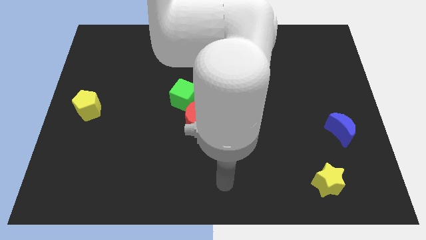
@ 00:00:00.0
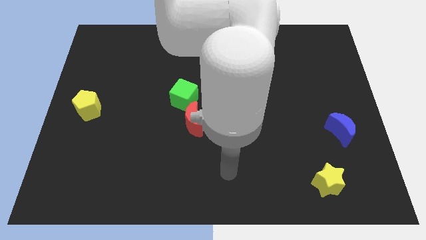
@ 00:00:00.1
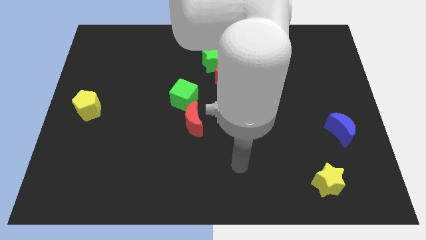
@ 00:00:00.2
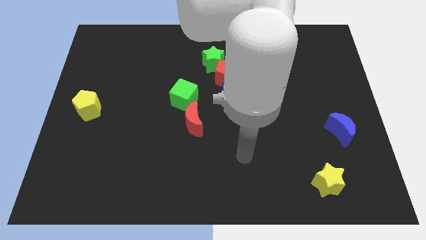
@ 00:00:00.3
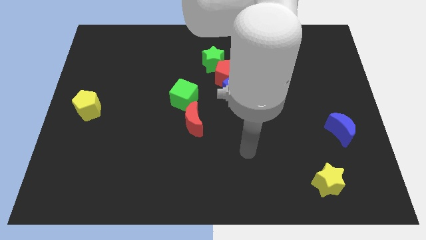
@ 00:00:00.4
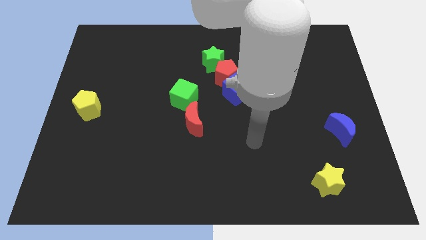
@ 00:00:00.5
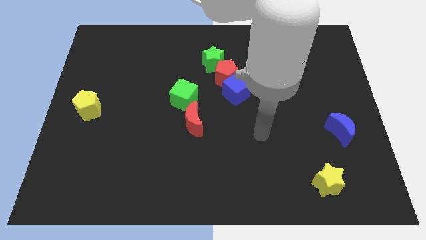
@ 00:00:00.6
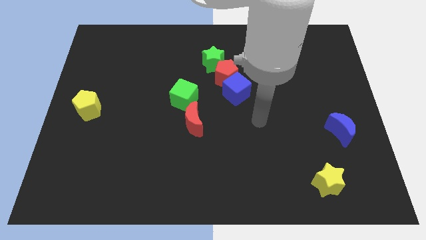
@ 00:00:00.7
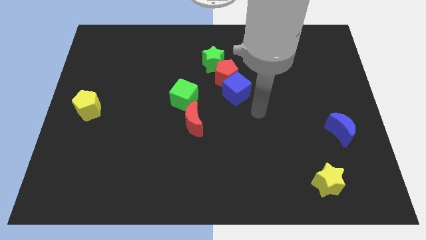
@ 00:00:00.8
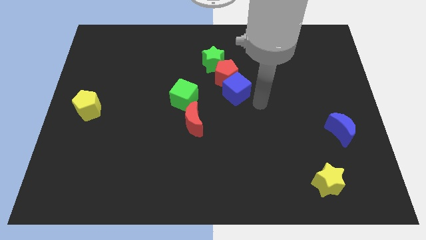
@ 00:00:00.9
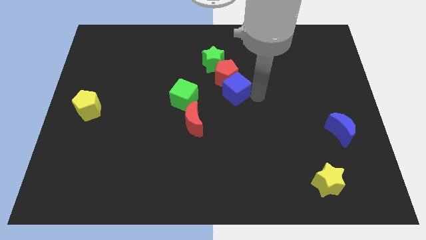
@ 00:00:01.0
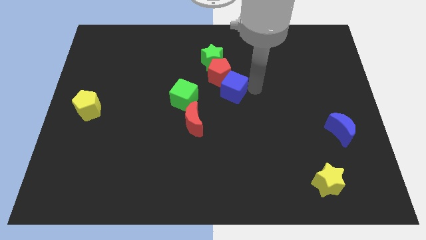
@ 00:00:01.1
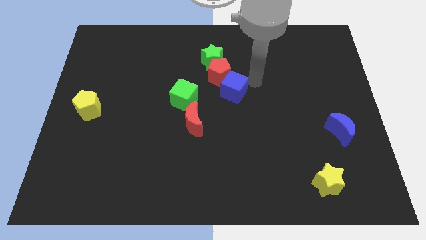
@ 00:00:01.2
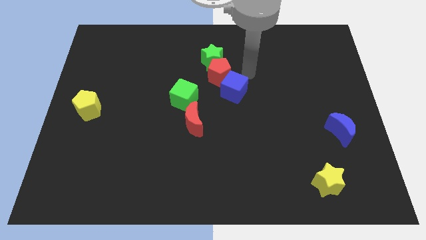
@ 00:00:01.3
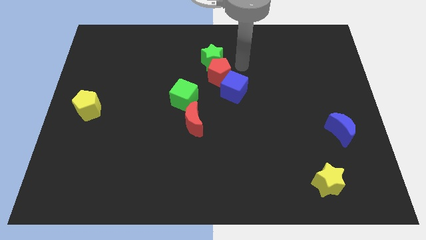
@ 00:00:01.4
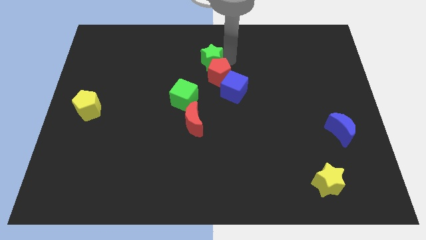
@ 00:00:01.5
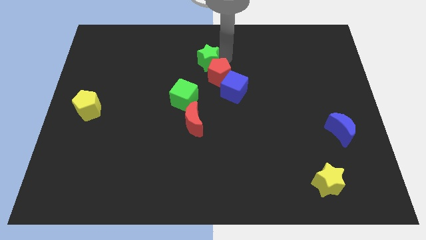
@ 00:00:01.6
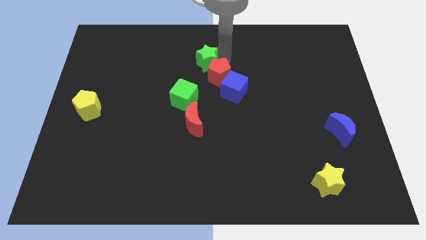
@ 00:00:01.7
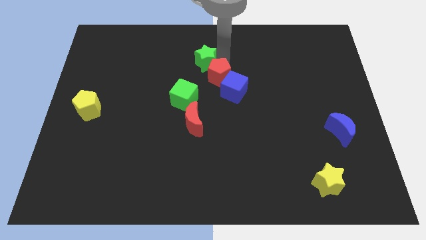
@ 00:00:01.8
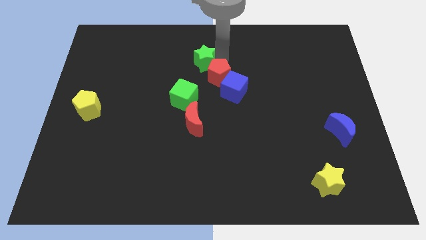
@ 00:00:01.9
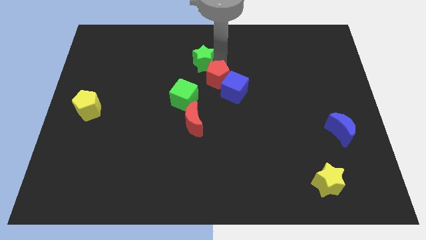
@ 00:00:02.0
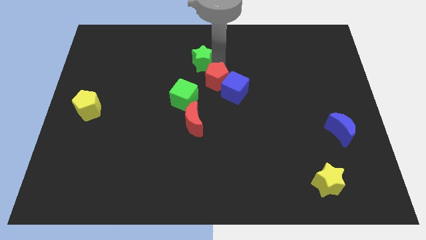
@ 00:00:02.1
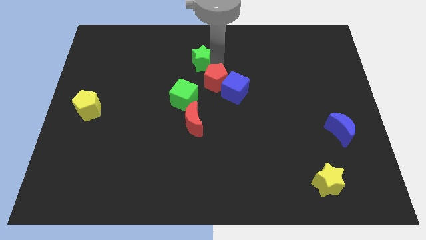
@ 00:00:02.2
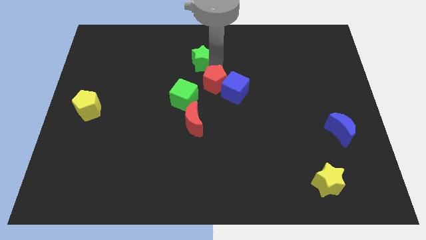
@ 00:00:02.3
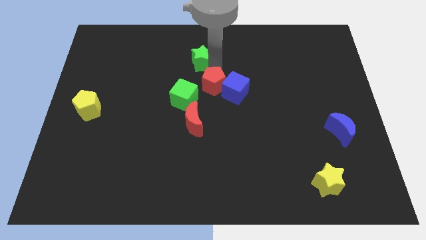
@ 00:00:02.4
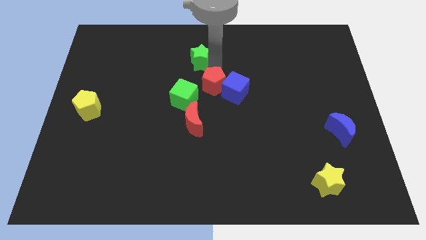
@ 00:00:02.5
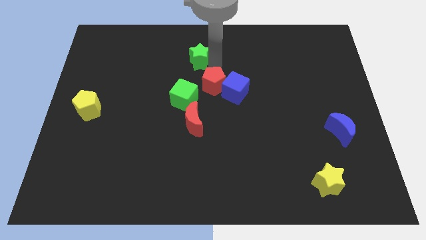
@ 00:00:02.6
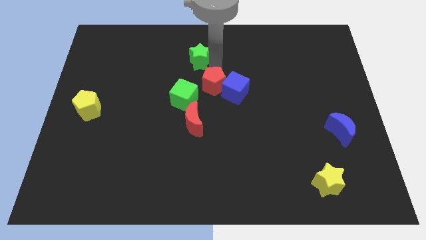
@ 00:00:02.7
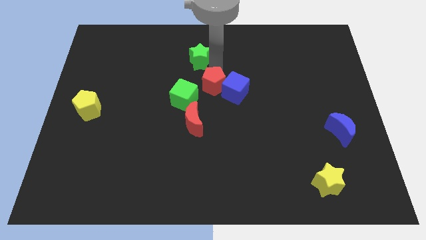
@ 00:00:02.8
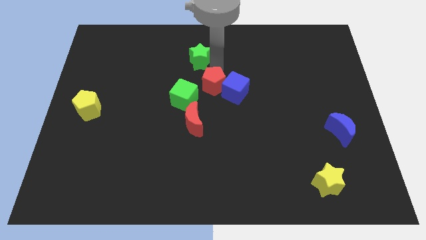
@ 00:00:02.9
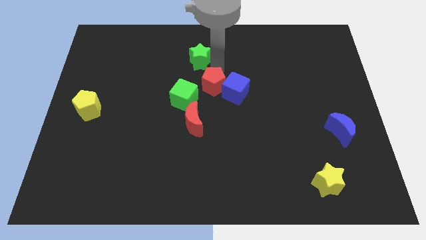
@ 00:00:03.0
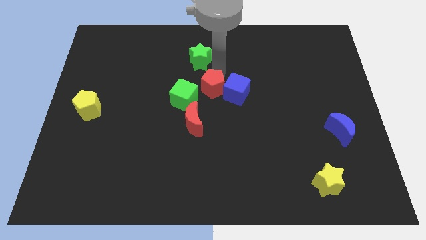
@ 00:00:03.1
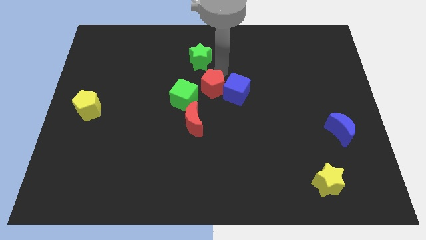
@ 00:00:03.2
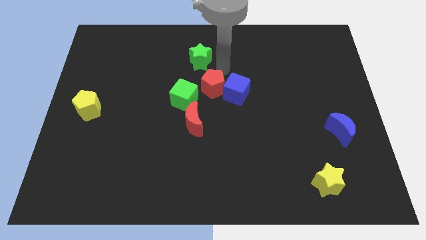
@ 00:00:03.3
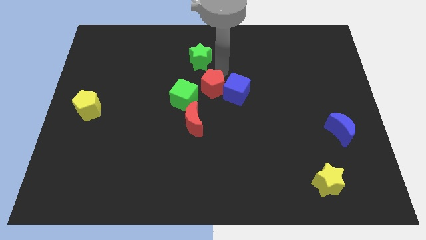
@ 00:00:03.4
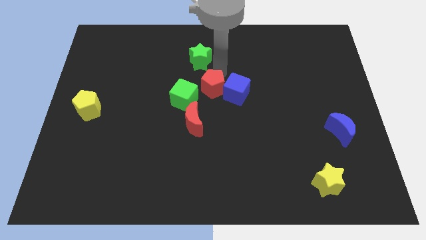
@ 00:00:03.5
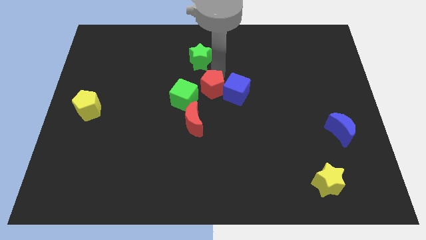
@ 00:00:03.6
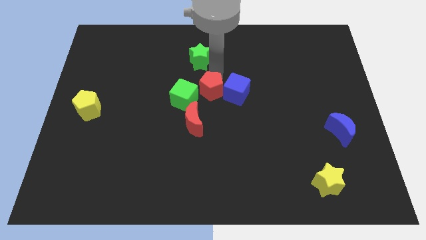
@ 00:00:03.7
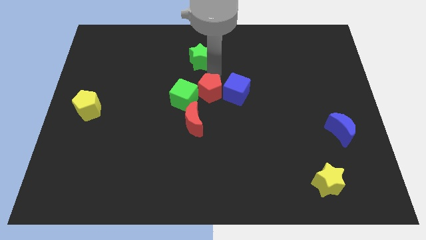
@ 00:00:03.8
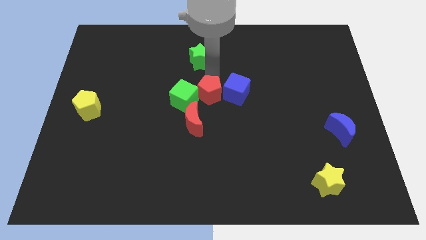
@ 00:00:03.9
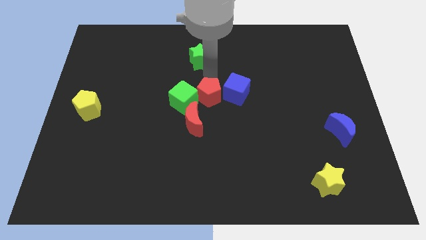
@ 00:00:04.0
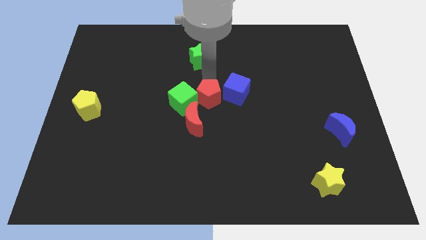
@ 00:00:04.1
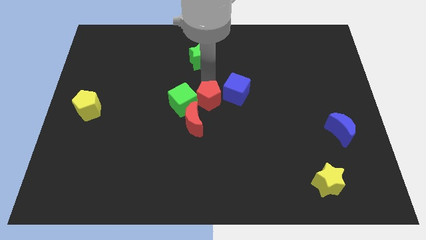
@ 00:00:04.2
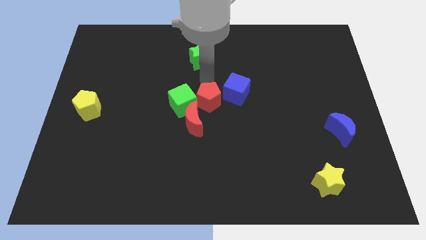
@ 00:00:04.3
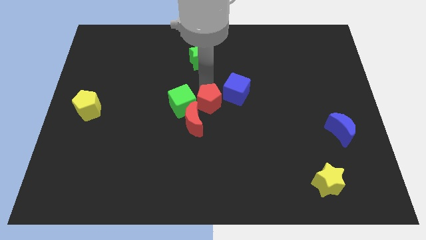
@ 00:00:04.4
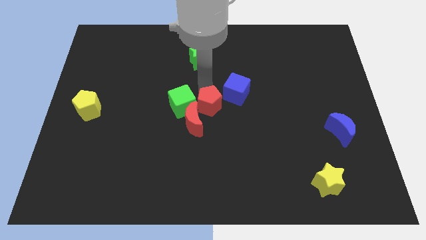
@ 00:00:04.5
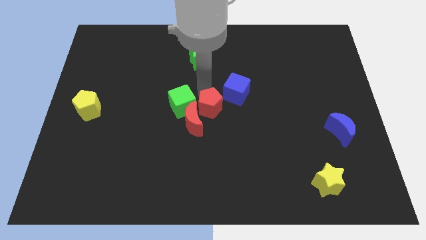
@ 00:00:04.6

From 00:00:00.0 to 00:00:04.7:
move the red pentagon next to the red moon

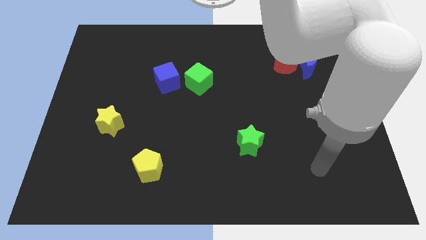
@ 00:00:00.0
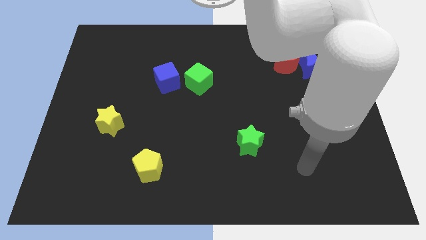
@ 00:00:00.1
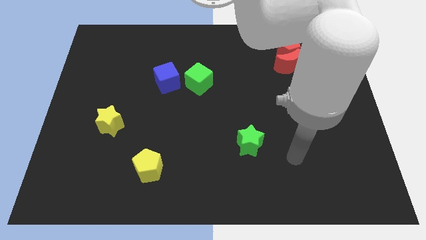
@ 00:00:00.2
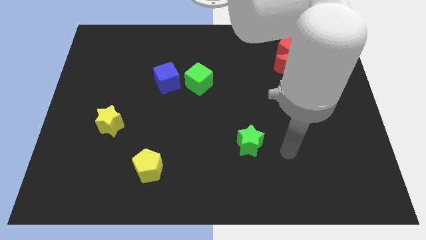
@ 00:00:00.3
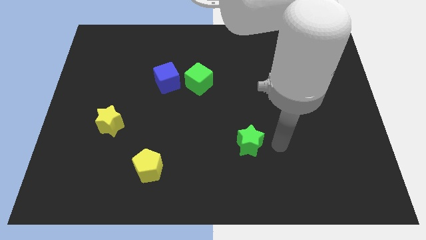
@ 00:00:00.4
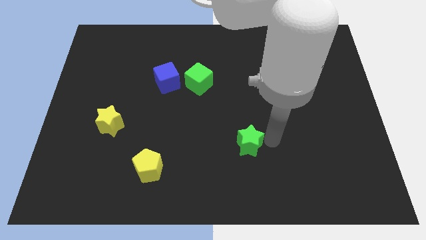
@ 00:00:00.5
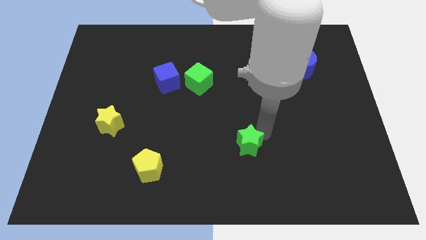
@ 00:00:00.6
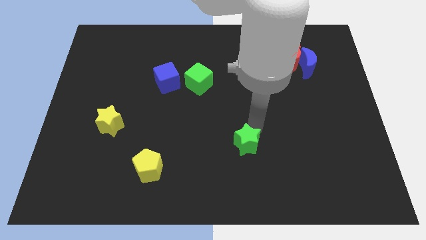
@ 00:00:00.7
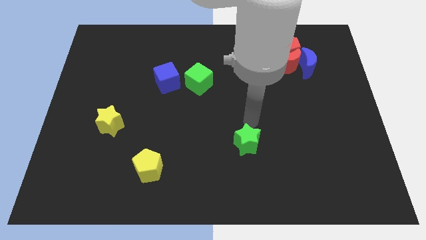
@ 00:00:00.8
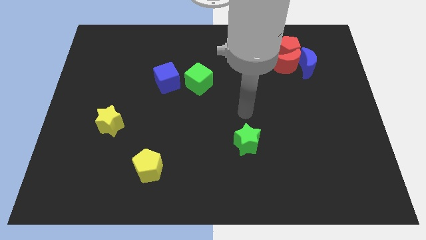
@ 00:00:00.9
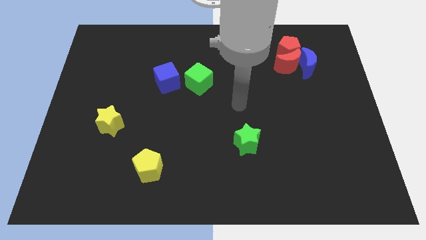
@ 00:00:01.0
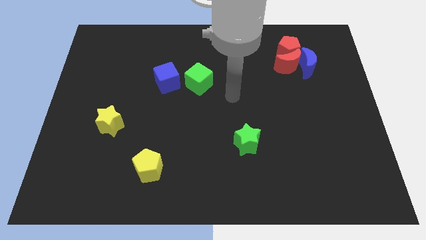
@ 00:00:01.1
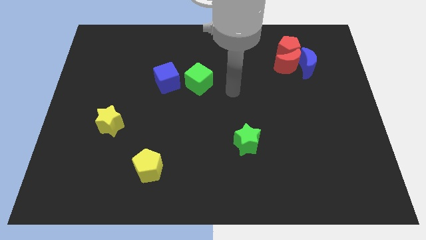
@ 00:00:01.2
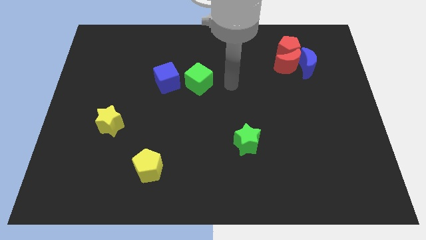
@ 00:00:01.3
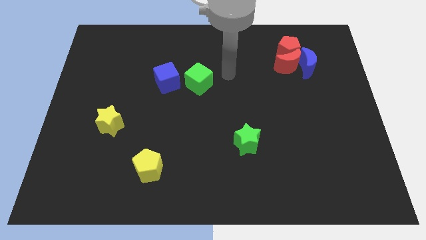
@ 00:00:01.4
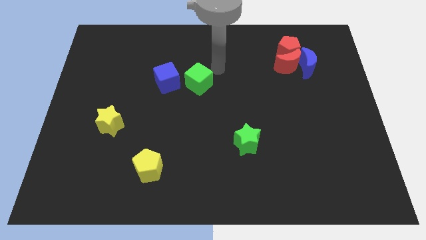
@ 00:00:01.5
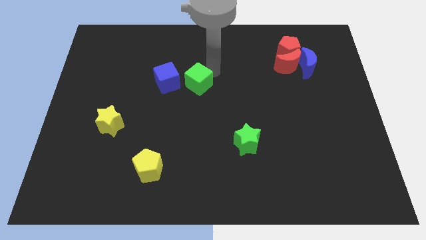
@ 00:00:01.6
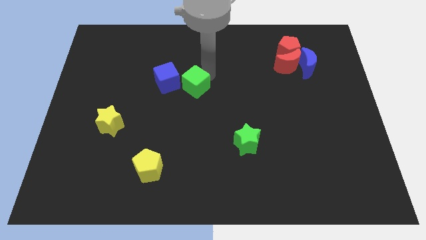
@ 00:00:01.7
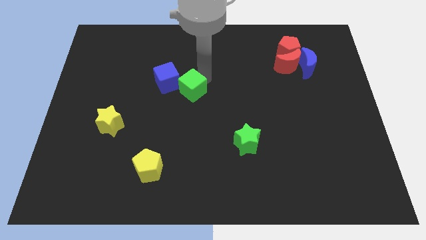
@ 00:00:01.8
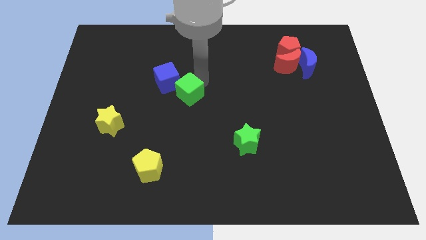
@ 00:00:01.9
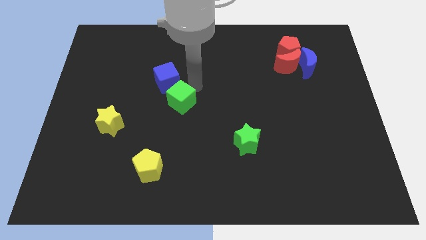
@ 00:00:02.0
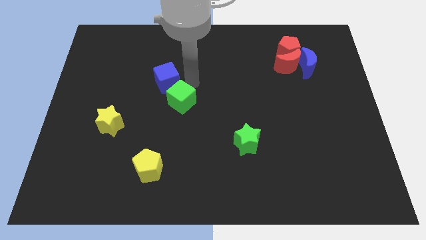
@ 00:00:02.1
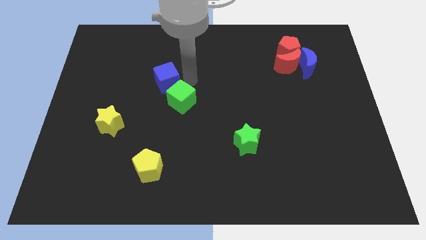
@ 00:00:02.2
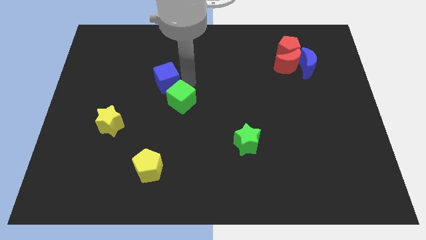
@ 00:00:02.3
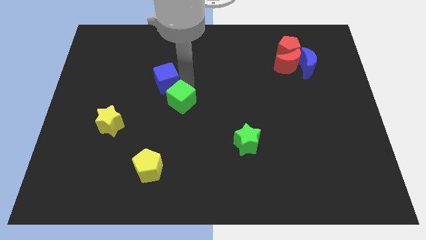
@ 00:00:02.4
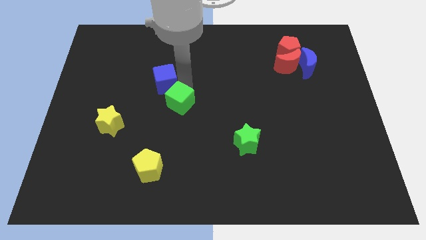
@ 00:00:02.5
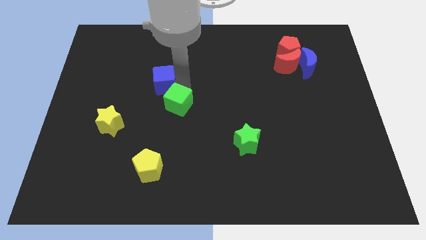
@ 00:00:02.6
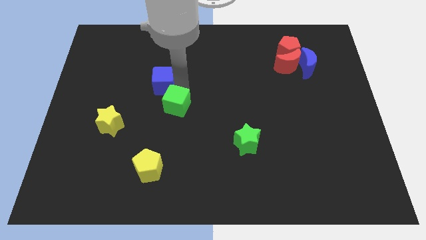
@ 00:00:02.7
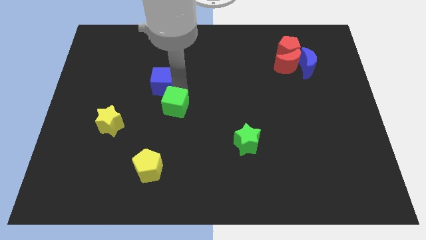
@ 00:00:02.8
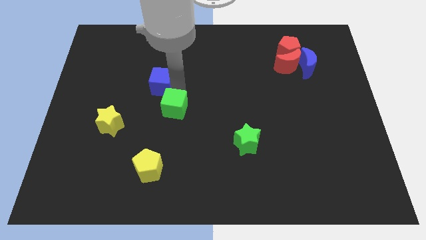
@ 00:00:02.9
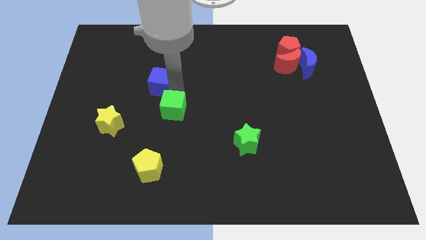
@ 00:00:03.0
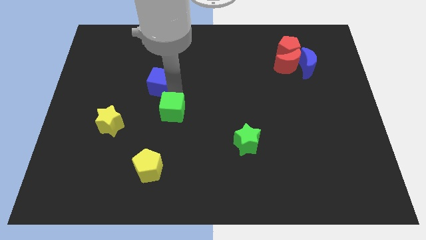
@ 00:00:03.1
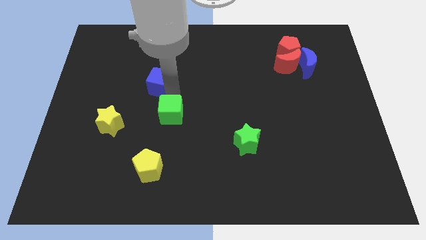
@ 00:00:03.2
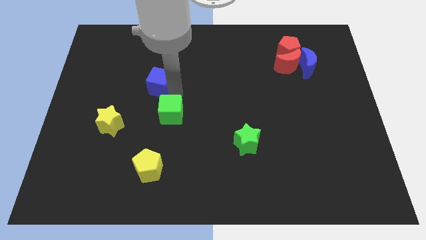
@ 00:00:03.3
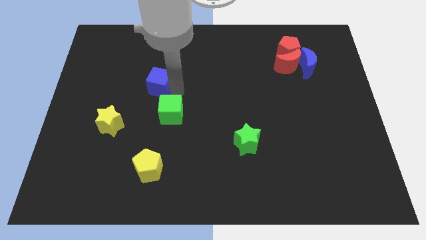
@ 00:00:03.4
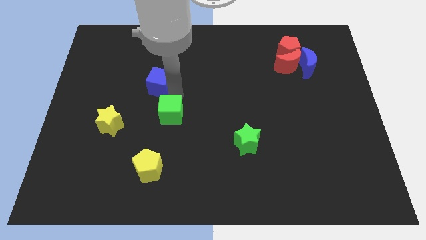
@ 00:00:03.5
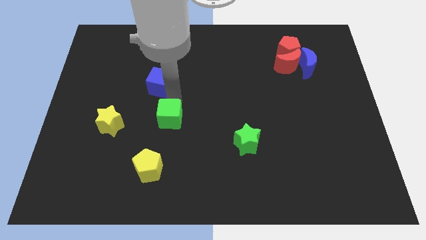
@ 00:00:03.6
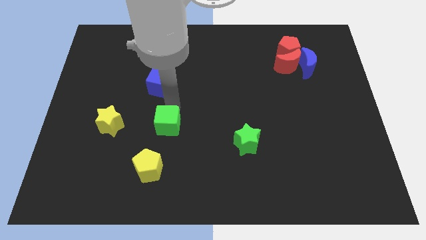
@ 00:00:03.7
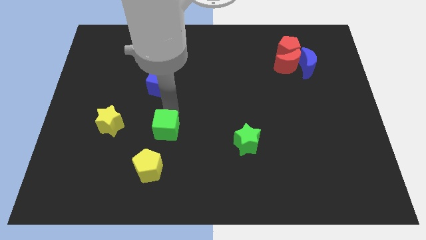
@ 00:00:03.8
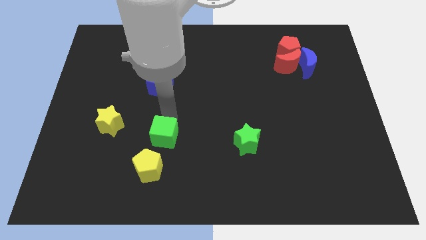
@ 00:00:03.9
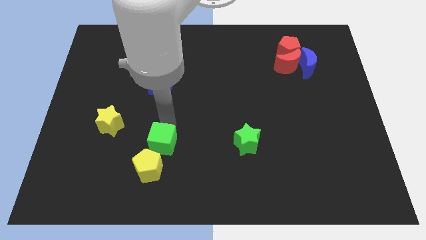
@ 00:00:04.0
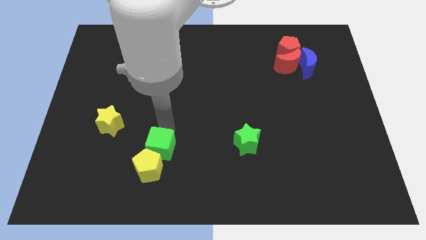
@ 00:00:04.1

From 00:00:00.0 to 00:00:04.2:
move the green cube next to the yellow pentagon
